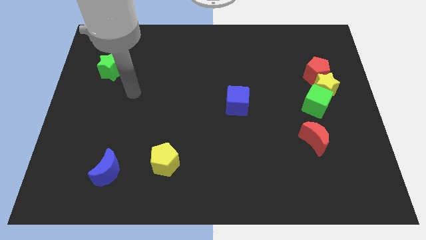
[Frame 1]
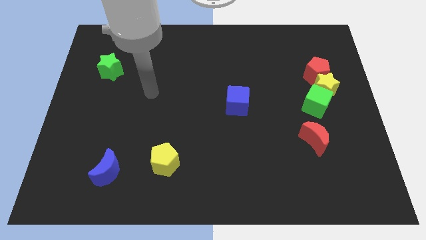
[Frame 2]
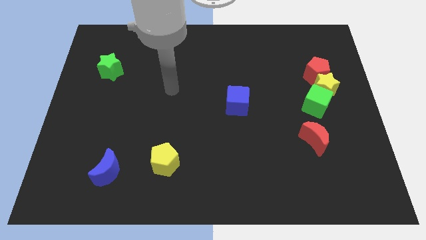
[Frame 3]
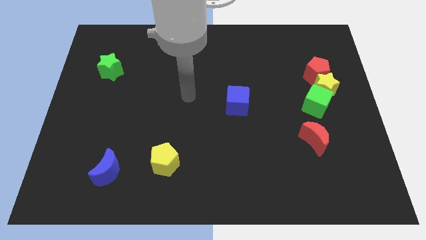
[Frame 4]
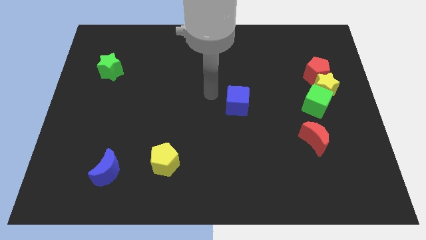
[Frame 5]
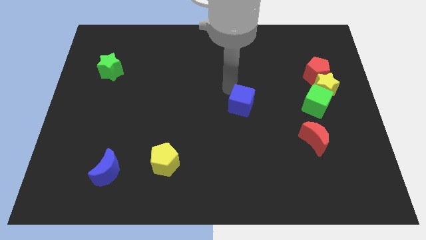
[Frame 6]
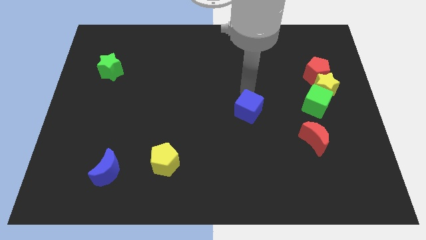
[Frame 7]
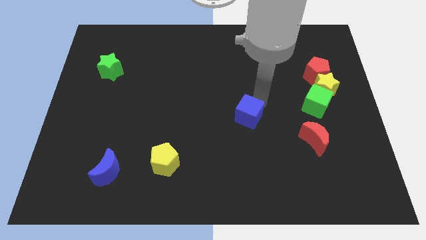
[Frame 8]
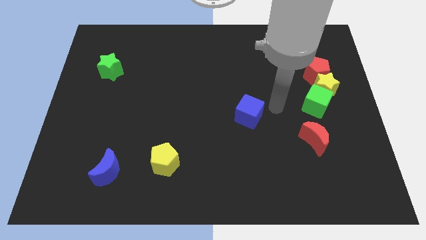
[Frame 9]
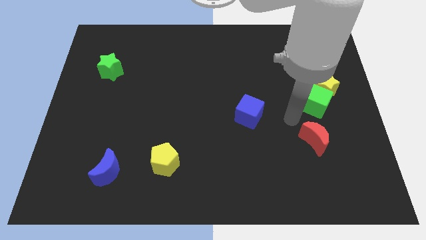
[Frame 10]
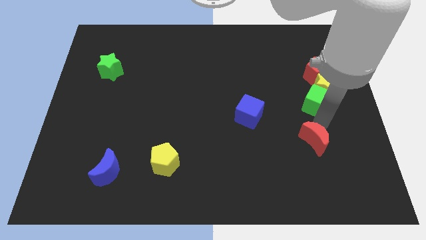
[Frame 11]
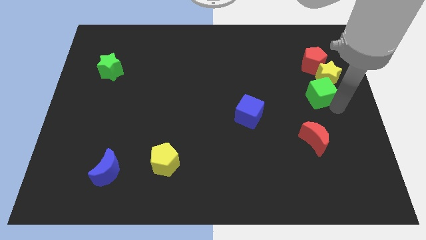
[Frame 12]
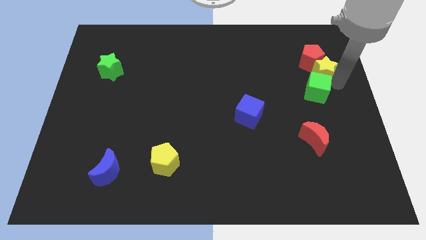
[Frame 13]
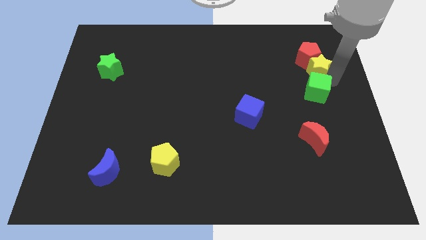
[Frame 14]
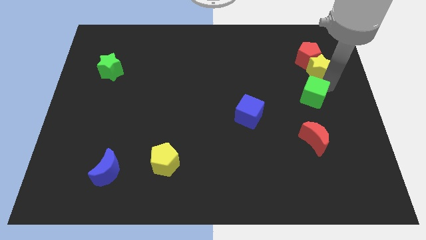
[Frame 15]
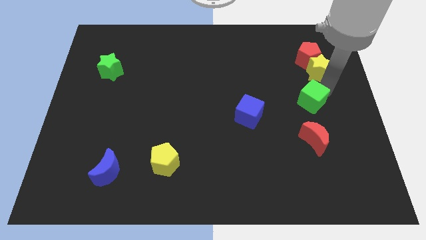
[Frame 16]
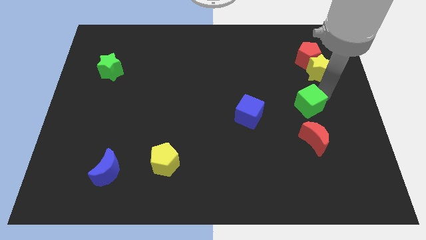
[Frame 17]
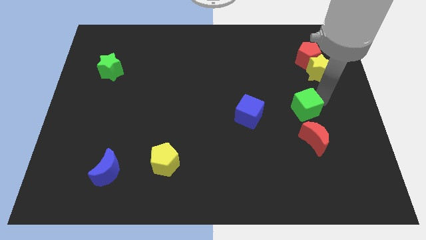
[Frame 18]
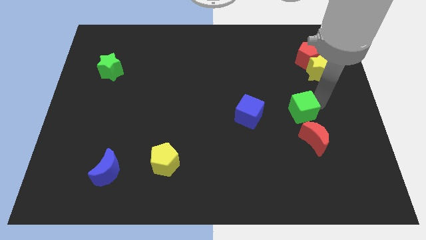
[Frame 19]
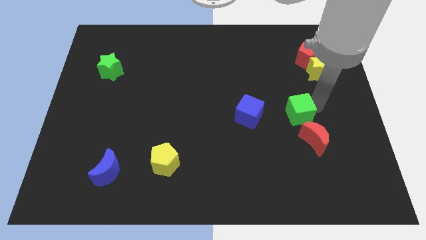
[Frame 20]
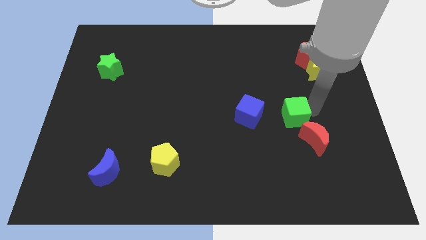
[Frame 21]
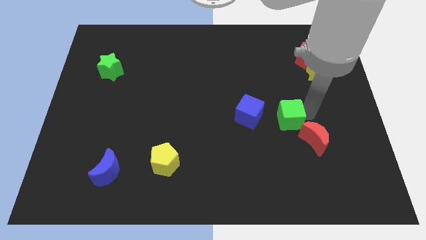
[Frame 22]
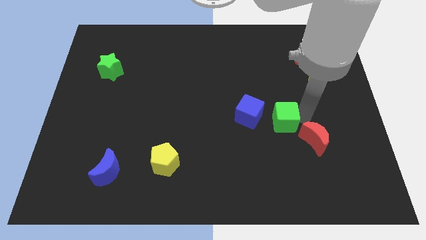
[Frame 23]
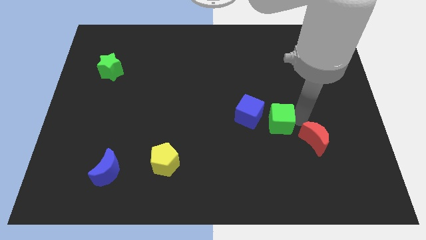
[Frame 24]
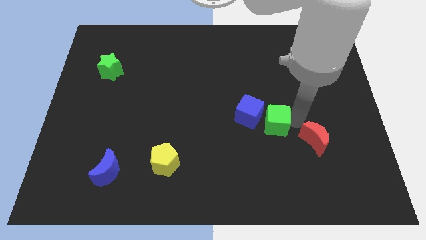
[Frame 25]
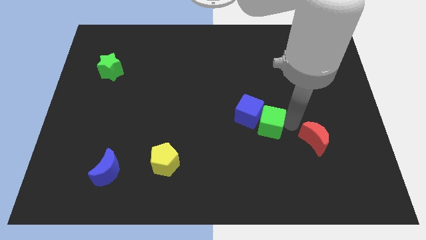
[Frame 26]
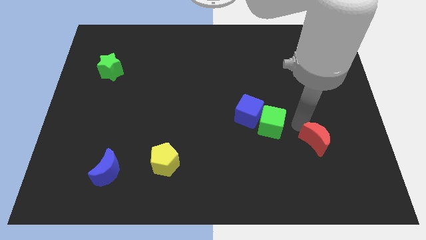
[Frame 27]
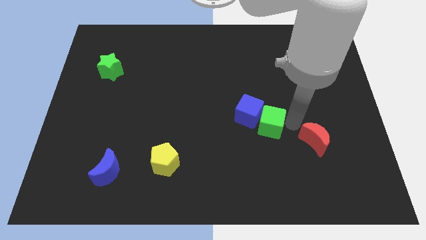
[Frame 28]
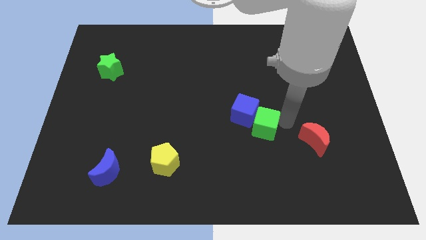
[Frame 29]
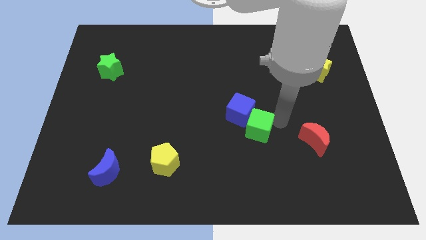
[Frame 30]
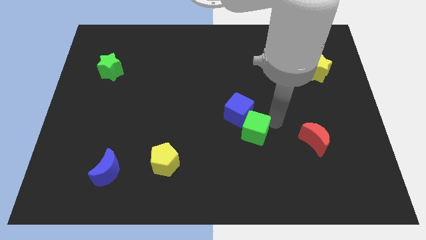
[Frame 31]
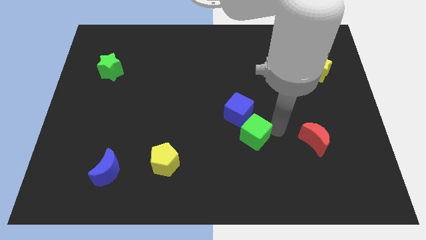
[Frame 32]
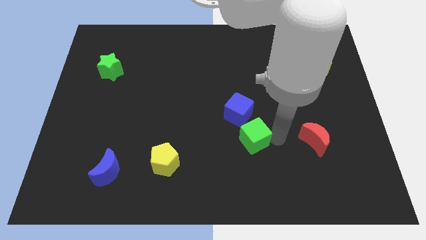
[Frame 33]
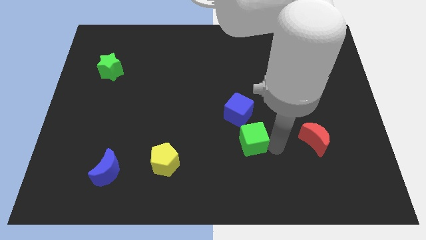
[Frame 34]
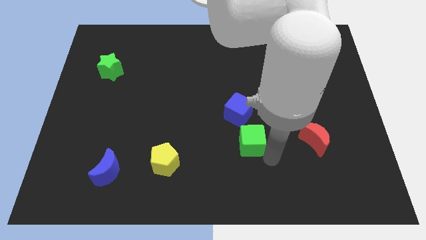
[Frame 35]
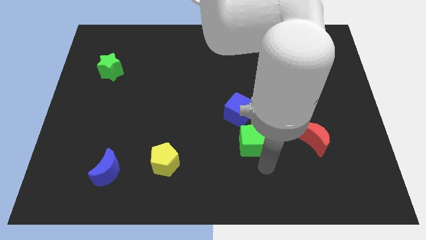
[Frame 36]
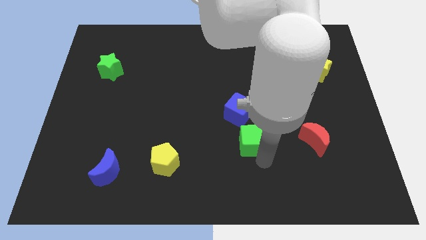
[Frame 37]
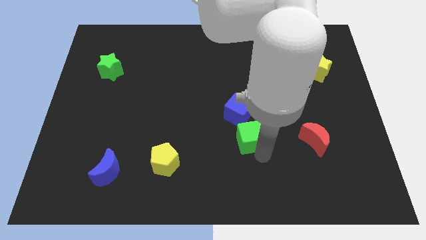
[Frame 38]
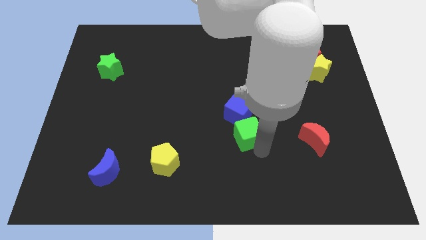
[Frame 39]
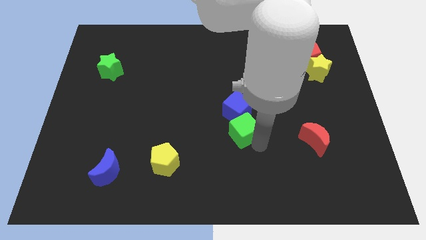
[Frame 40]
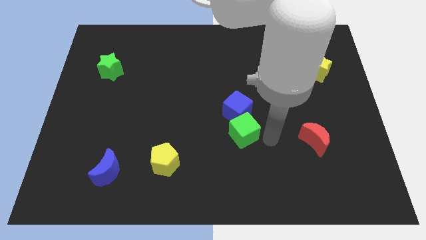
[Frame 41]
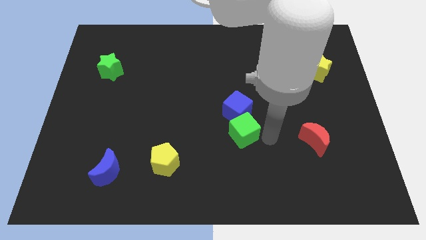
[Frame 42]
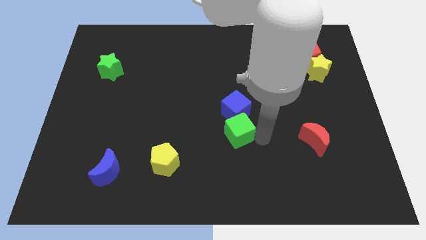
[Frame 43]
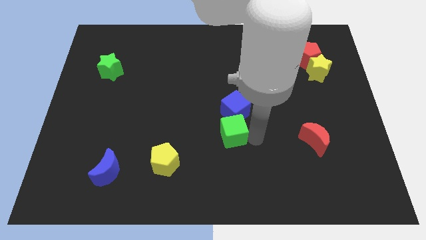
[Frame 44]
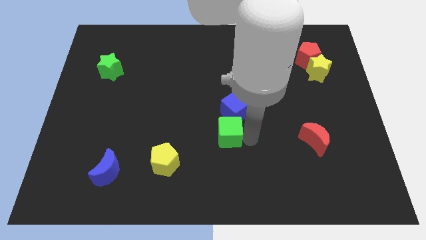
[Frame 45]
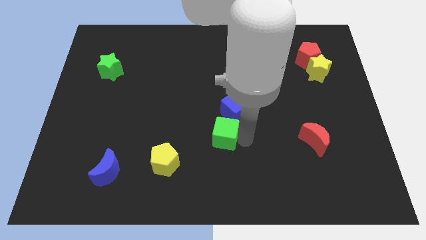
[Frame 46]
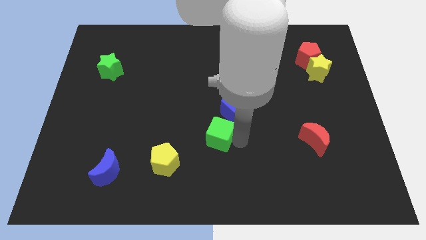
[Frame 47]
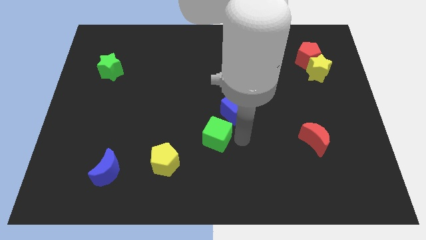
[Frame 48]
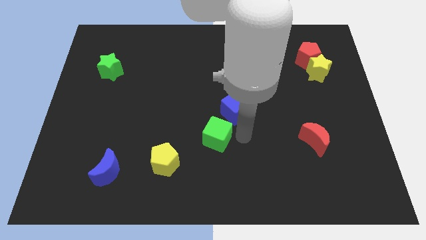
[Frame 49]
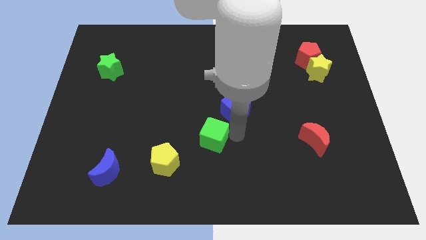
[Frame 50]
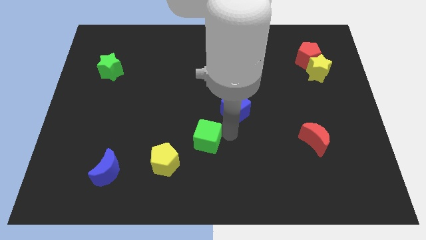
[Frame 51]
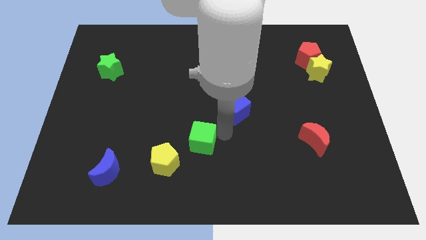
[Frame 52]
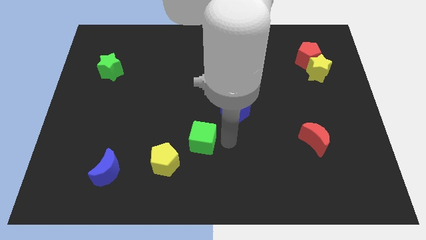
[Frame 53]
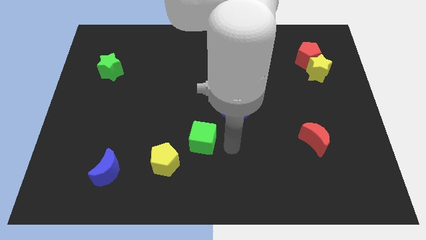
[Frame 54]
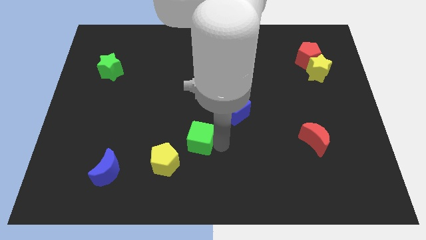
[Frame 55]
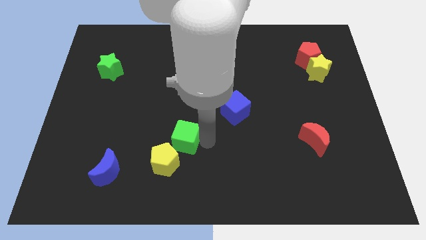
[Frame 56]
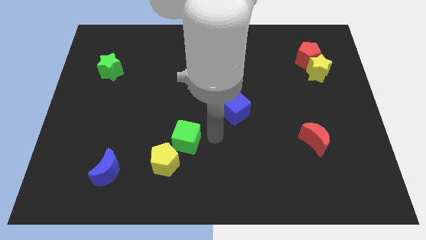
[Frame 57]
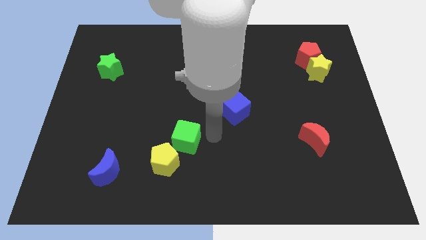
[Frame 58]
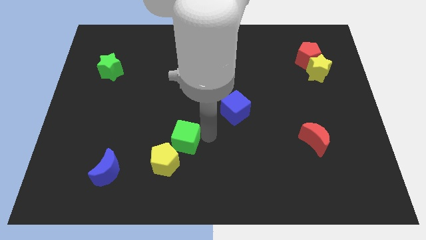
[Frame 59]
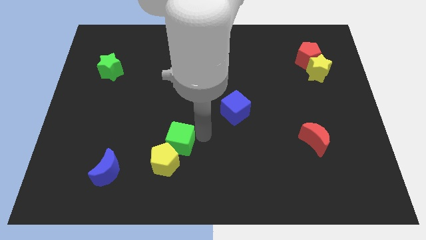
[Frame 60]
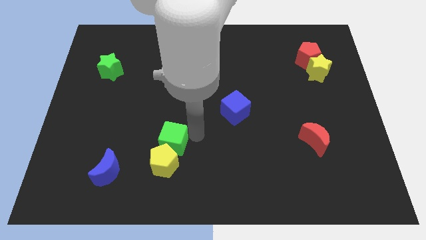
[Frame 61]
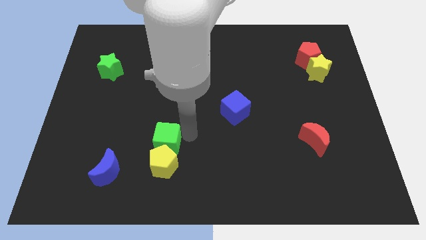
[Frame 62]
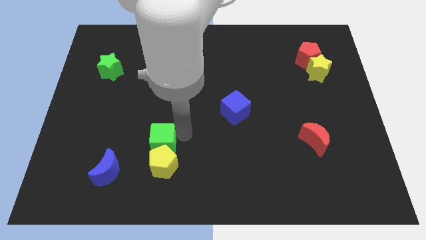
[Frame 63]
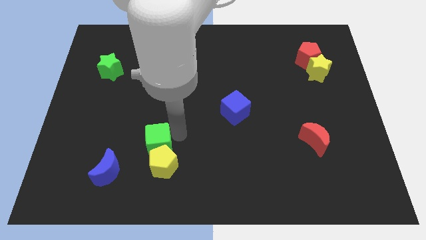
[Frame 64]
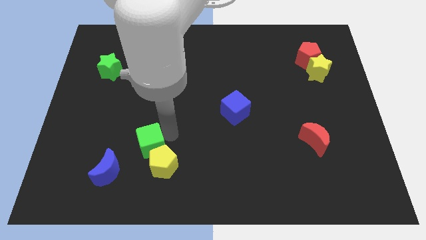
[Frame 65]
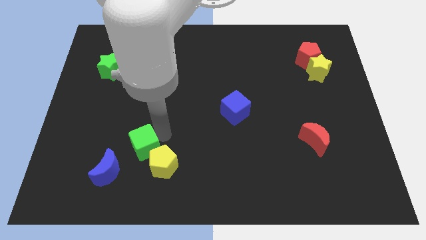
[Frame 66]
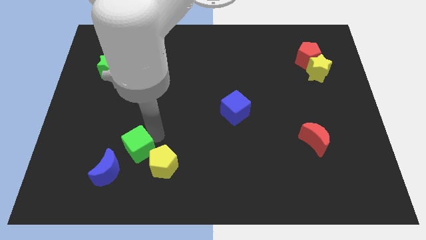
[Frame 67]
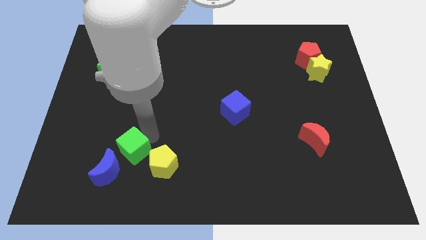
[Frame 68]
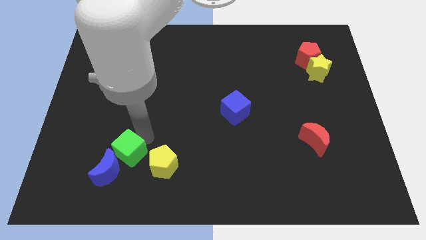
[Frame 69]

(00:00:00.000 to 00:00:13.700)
put the green cube towards the blue moon

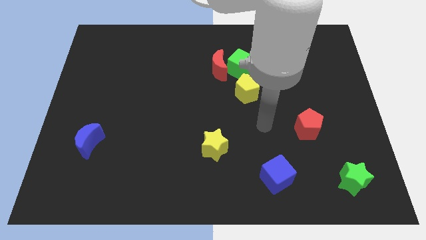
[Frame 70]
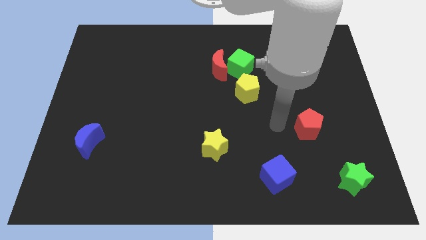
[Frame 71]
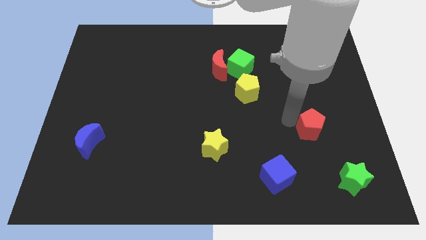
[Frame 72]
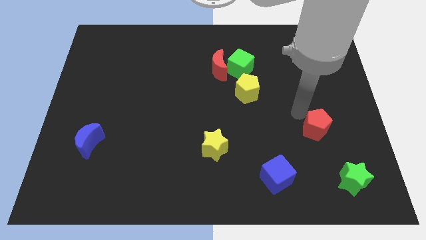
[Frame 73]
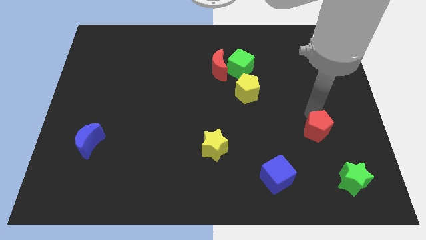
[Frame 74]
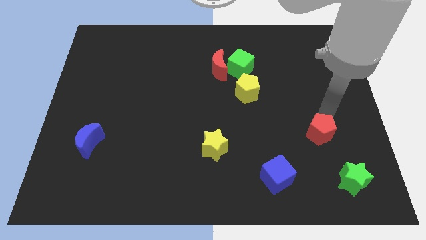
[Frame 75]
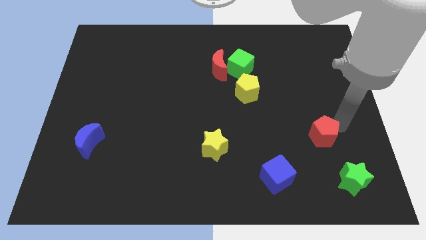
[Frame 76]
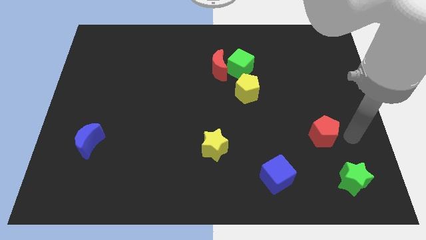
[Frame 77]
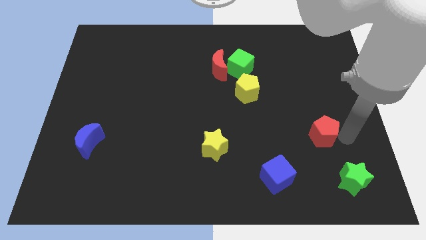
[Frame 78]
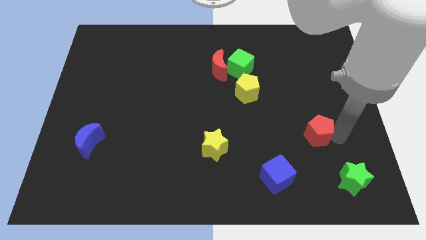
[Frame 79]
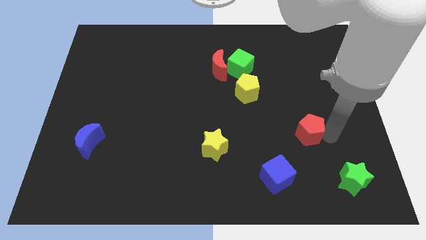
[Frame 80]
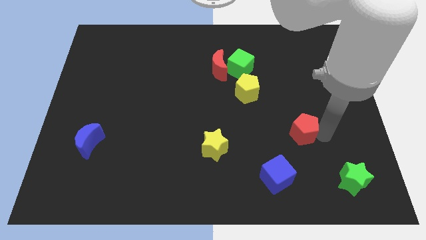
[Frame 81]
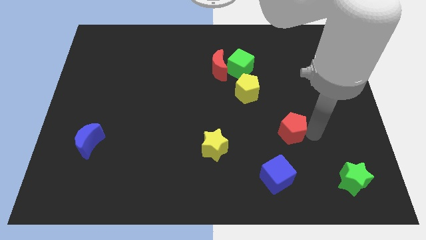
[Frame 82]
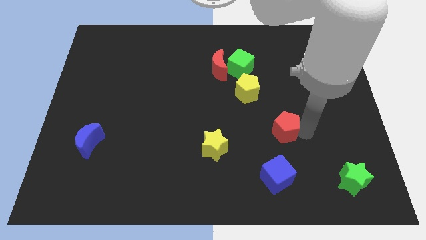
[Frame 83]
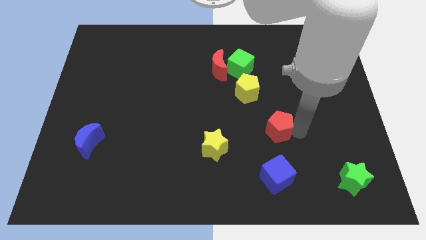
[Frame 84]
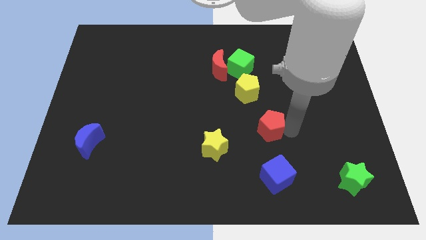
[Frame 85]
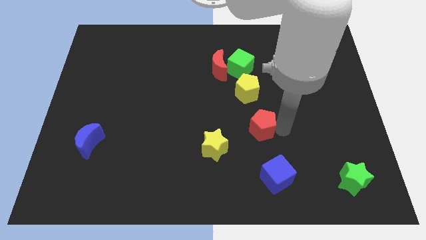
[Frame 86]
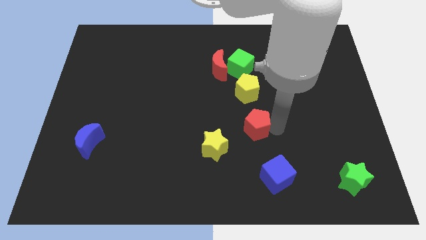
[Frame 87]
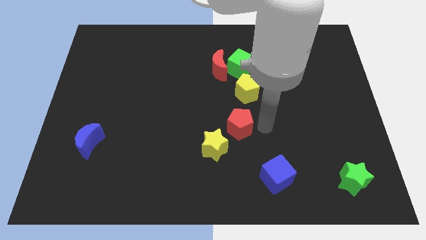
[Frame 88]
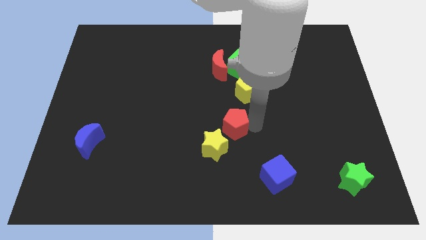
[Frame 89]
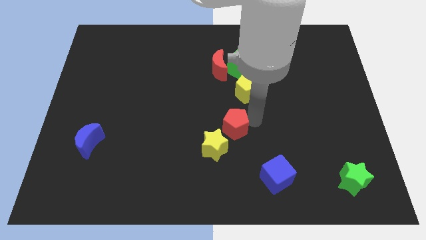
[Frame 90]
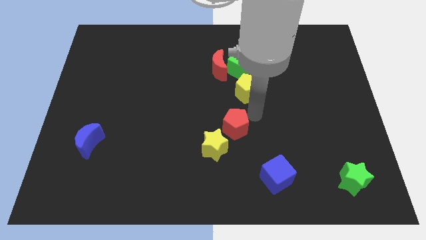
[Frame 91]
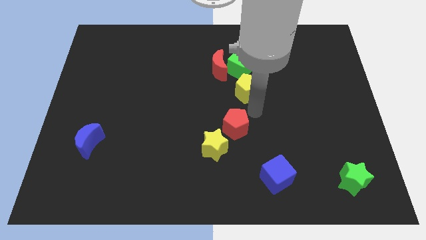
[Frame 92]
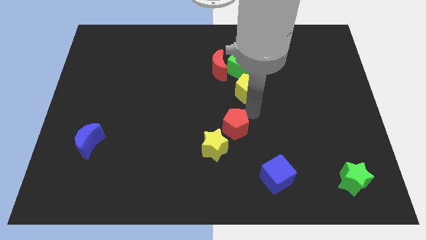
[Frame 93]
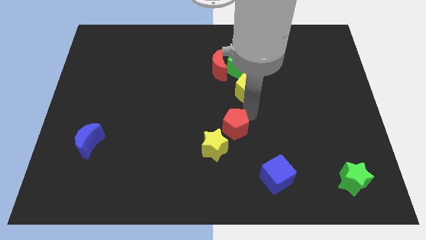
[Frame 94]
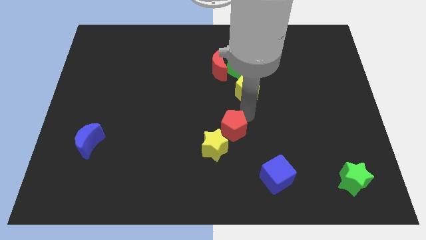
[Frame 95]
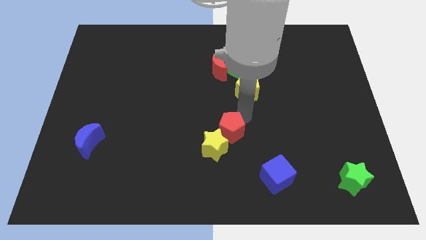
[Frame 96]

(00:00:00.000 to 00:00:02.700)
slide the red pentagon to the yellow star
